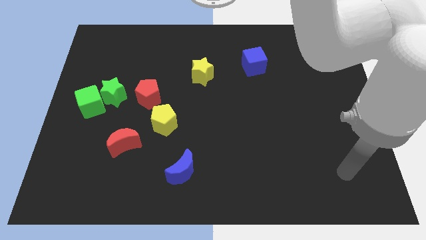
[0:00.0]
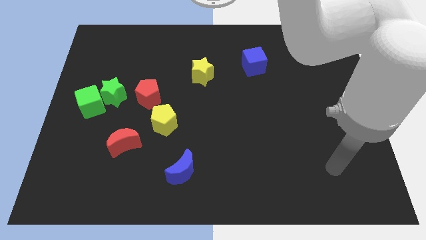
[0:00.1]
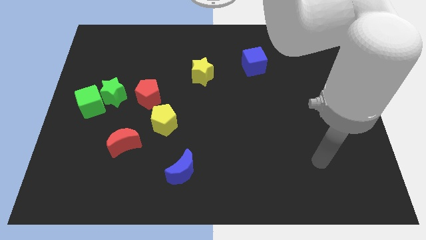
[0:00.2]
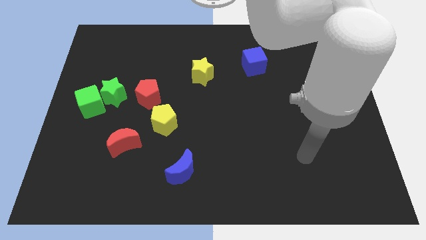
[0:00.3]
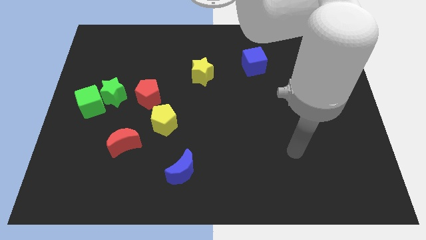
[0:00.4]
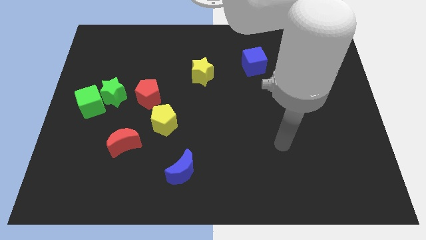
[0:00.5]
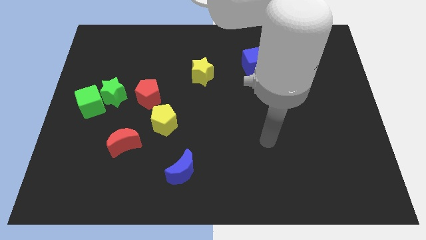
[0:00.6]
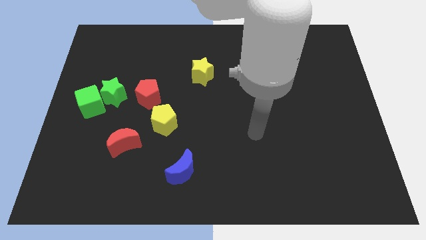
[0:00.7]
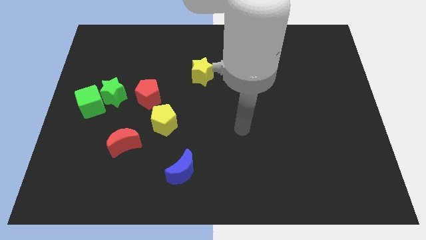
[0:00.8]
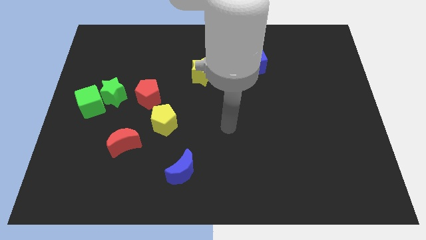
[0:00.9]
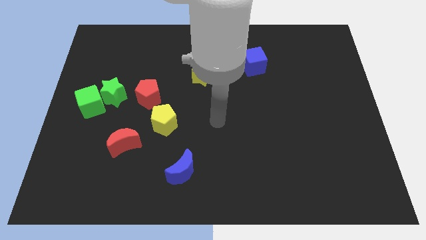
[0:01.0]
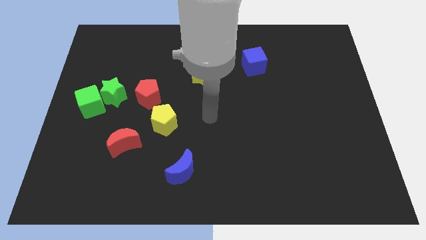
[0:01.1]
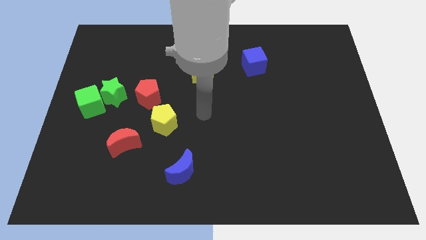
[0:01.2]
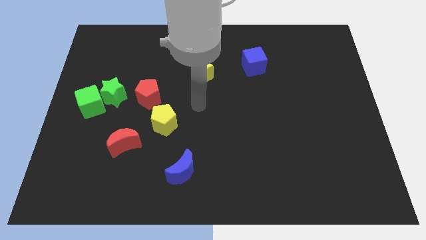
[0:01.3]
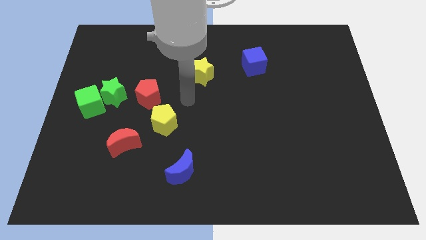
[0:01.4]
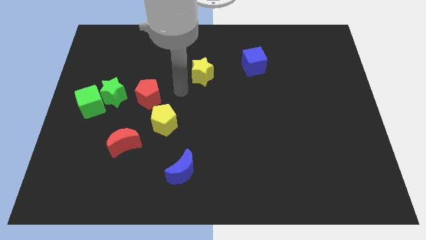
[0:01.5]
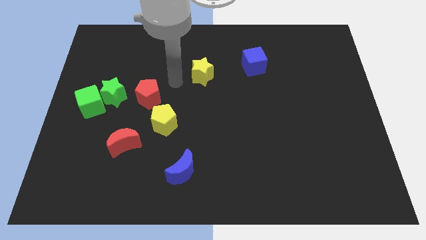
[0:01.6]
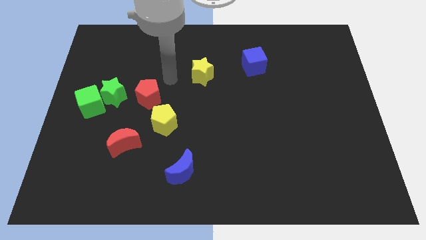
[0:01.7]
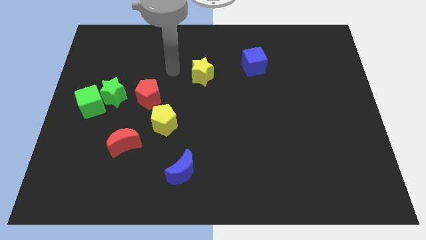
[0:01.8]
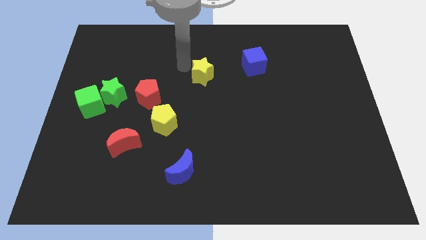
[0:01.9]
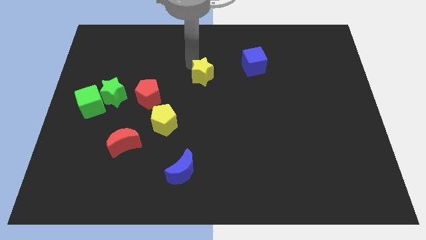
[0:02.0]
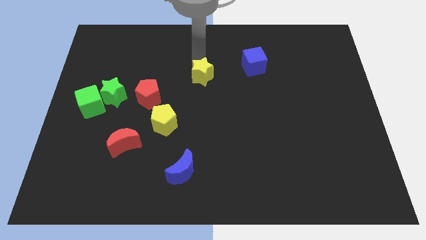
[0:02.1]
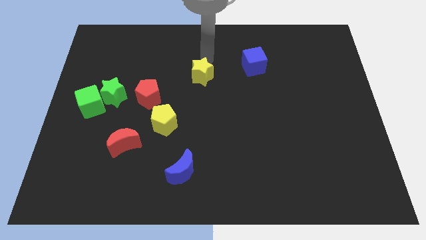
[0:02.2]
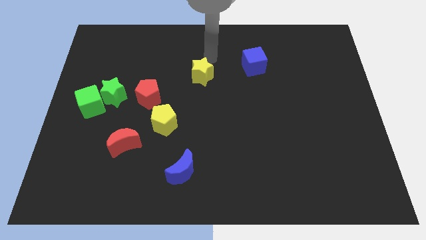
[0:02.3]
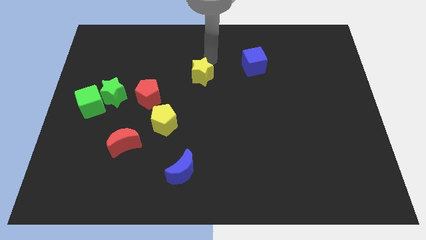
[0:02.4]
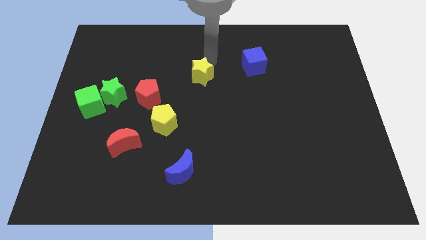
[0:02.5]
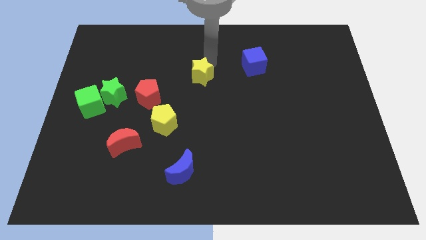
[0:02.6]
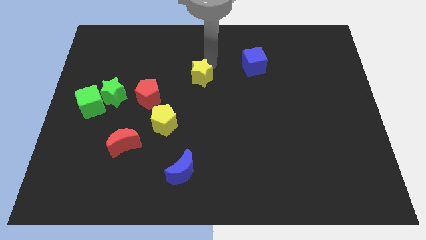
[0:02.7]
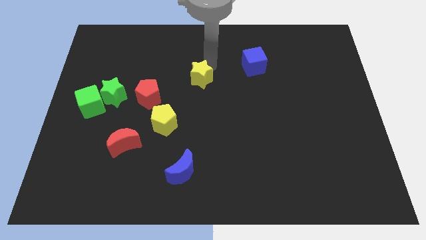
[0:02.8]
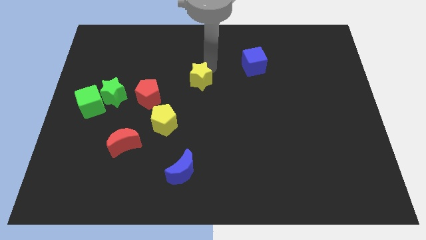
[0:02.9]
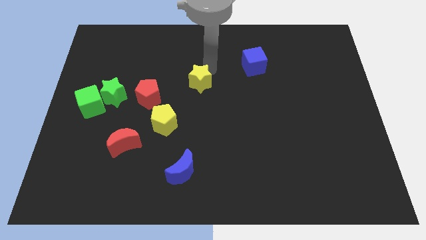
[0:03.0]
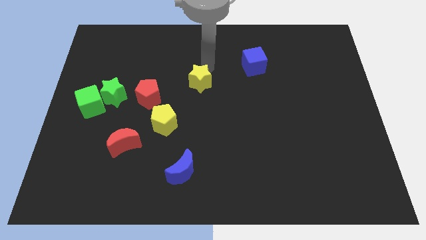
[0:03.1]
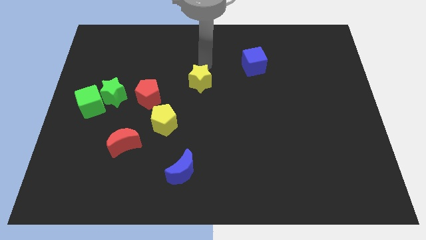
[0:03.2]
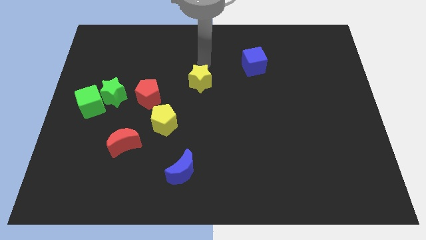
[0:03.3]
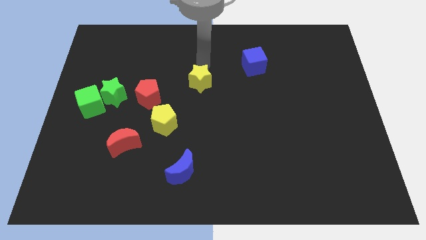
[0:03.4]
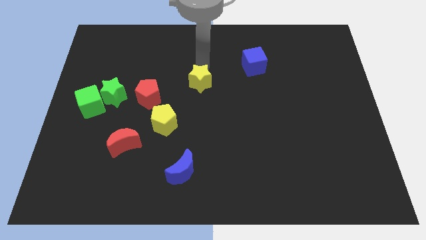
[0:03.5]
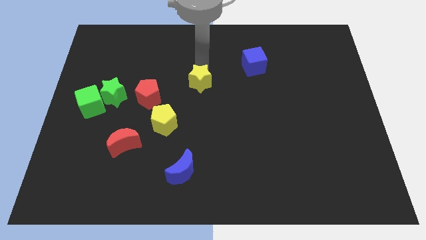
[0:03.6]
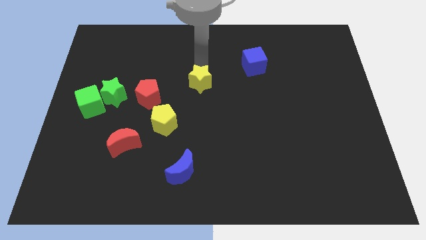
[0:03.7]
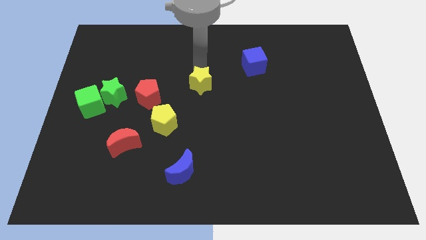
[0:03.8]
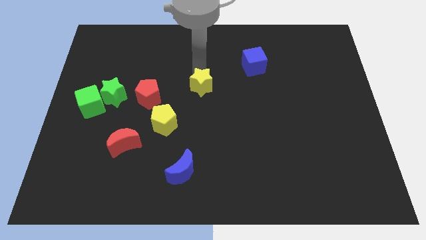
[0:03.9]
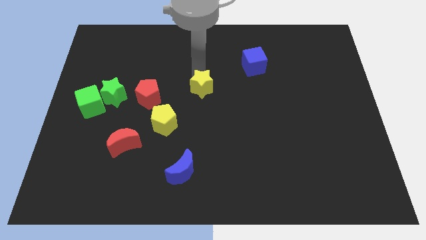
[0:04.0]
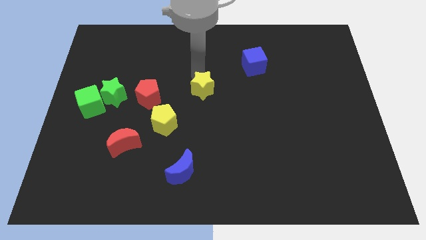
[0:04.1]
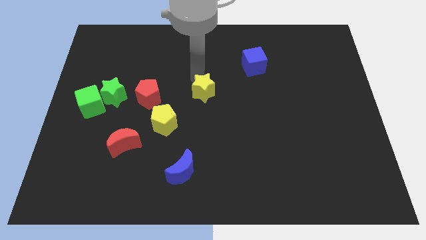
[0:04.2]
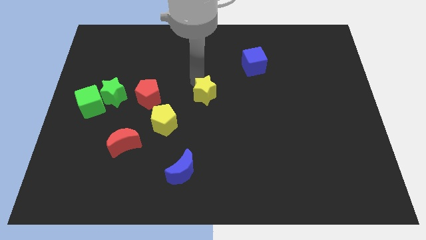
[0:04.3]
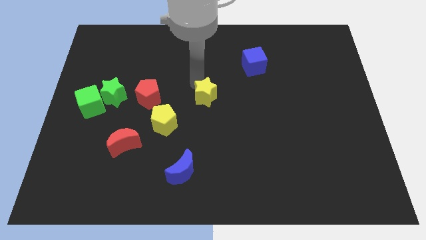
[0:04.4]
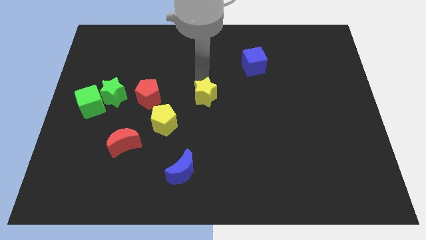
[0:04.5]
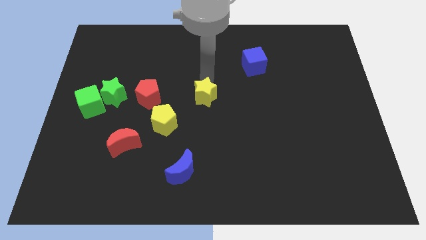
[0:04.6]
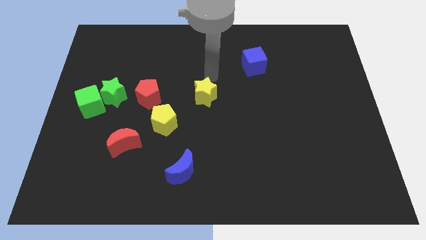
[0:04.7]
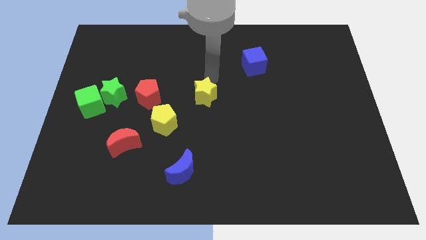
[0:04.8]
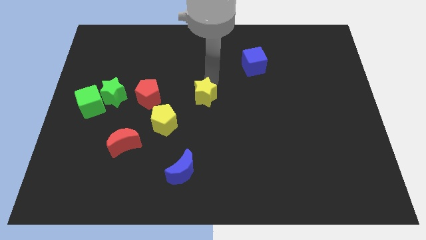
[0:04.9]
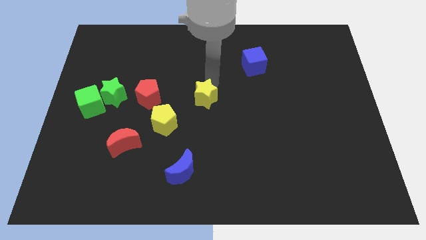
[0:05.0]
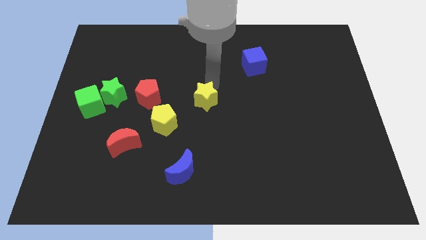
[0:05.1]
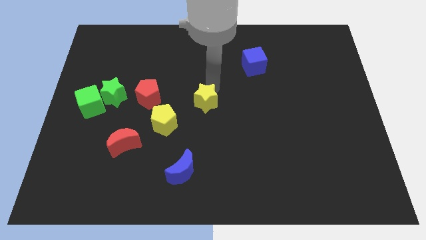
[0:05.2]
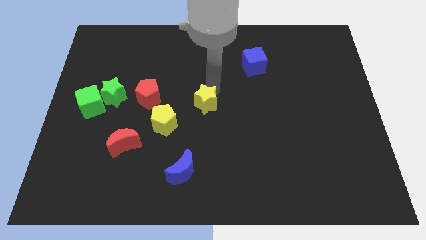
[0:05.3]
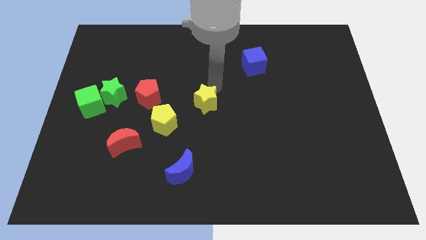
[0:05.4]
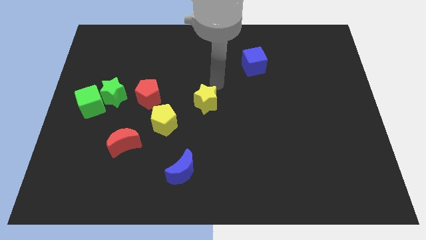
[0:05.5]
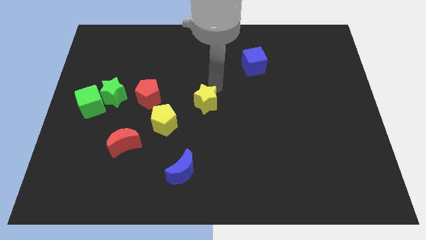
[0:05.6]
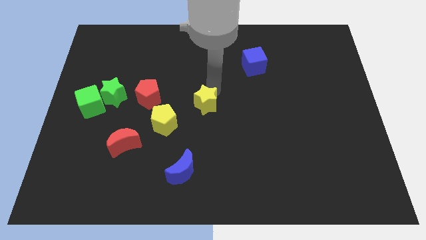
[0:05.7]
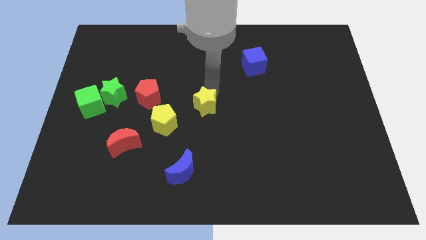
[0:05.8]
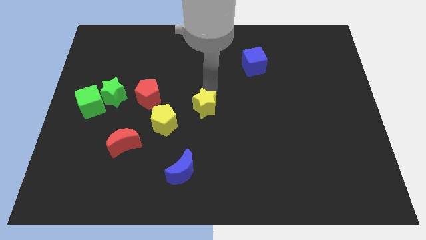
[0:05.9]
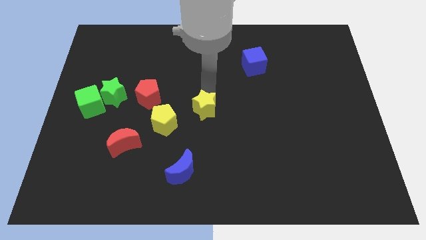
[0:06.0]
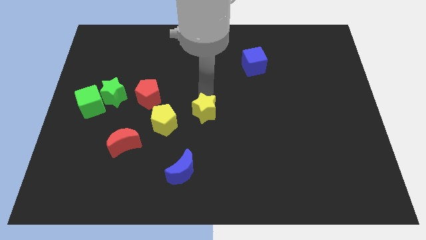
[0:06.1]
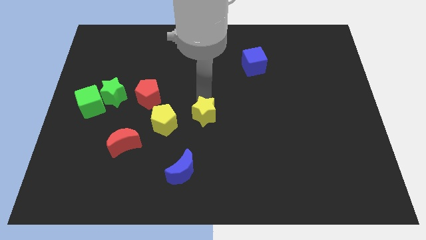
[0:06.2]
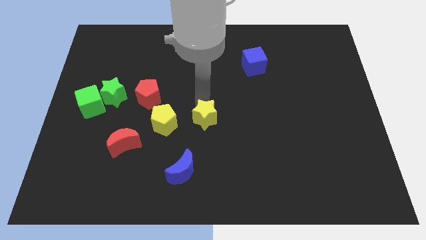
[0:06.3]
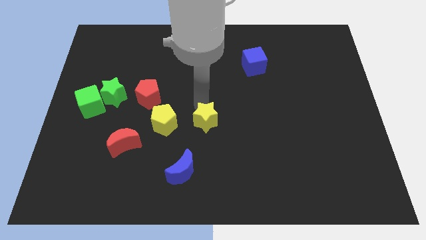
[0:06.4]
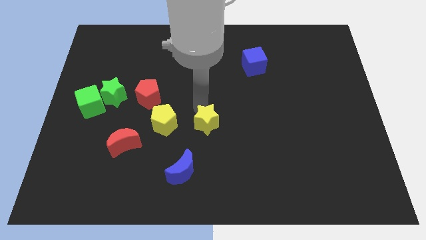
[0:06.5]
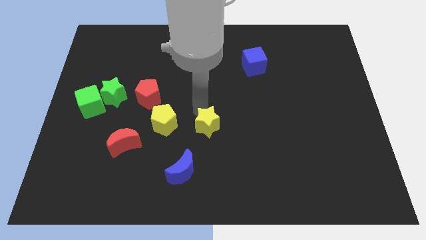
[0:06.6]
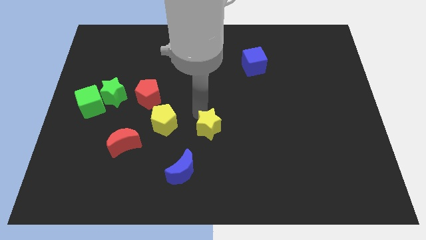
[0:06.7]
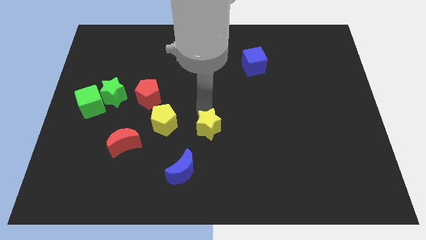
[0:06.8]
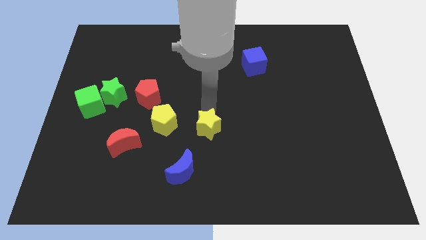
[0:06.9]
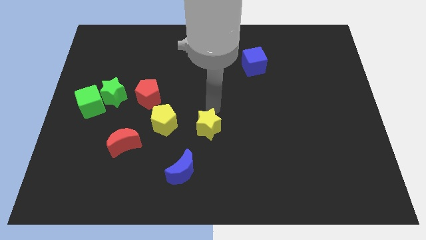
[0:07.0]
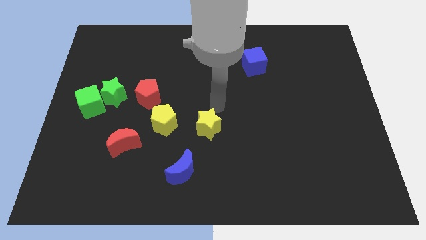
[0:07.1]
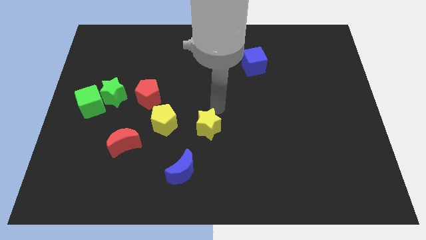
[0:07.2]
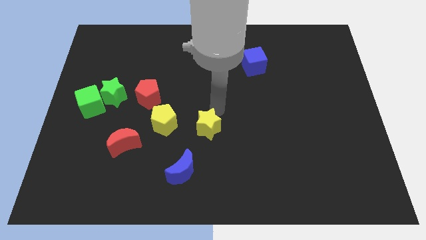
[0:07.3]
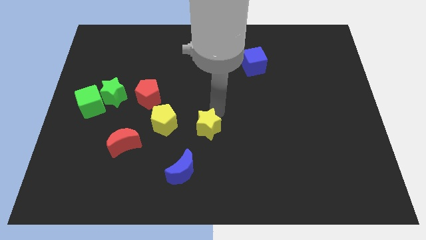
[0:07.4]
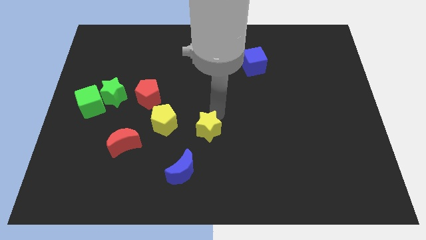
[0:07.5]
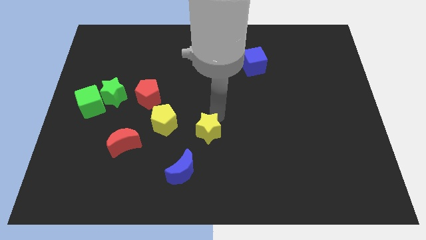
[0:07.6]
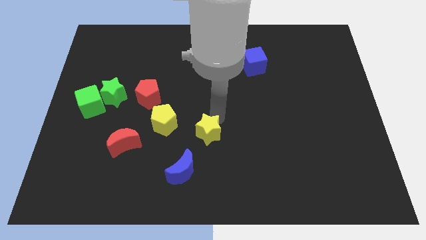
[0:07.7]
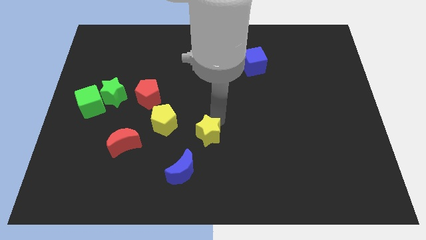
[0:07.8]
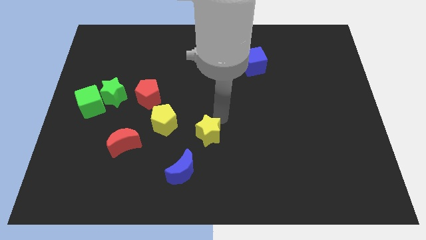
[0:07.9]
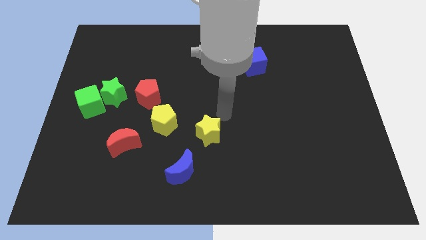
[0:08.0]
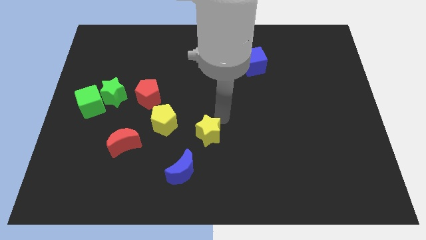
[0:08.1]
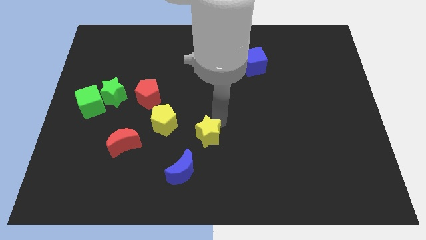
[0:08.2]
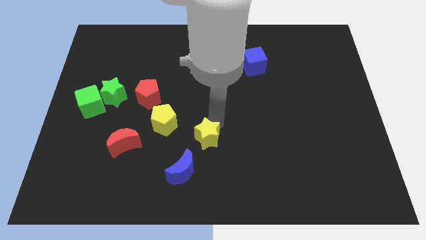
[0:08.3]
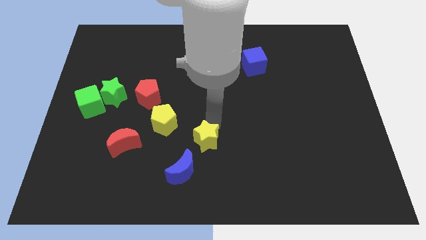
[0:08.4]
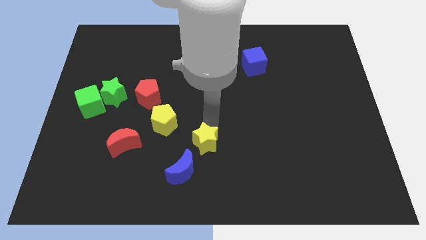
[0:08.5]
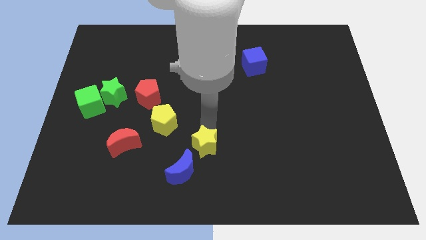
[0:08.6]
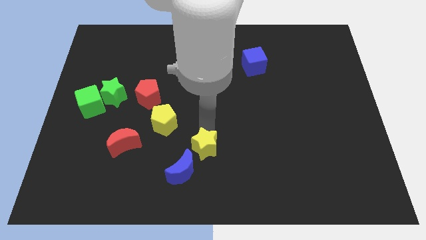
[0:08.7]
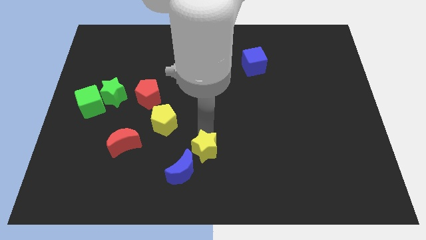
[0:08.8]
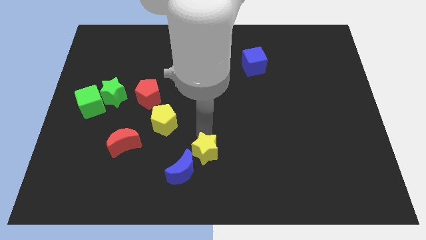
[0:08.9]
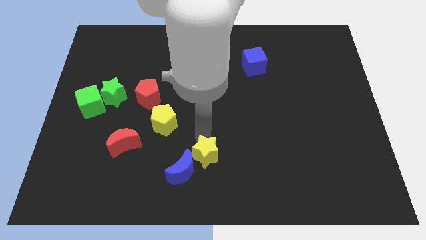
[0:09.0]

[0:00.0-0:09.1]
move the yellow star to the bottom side
